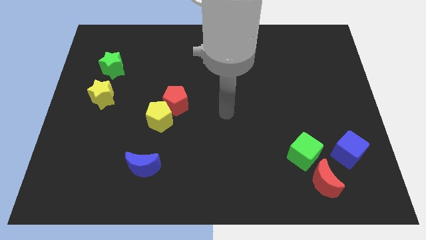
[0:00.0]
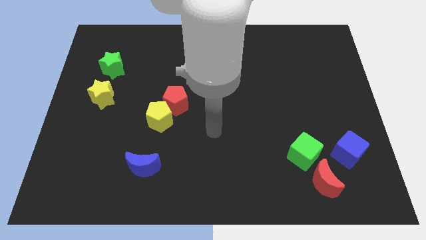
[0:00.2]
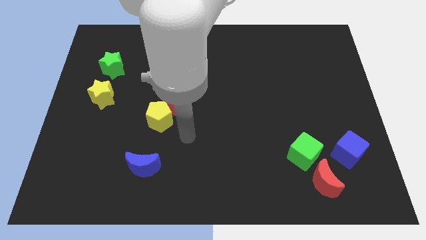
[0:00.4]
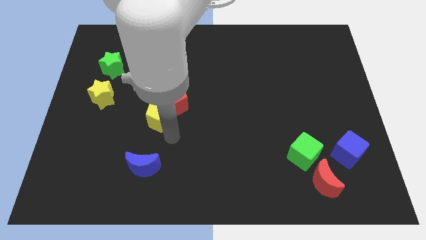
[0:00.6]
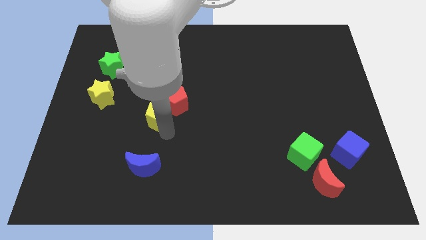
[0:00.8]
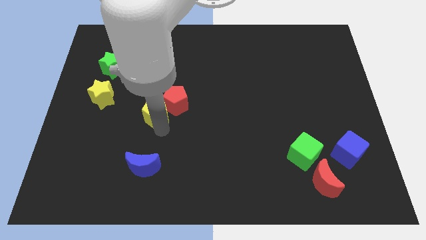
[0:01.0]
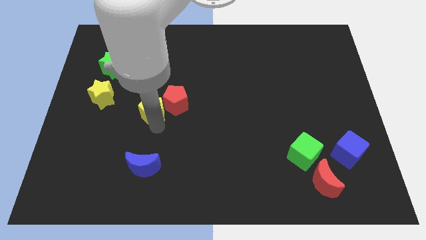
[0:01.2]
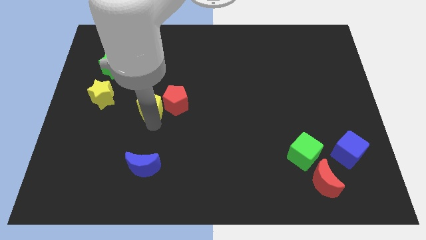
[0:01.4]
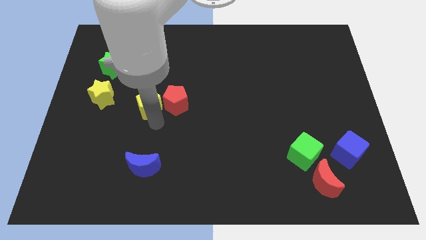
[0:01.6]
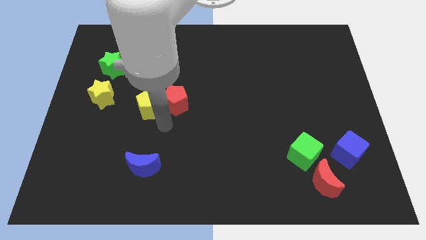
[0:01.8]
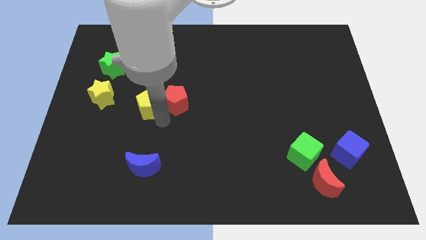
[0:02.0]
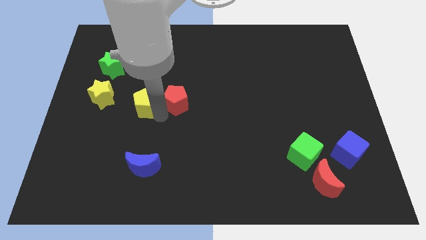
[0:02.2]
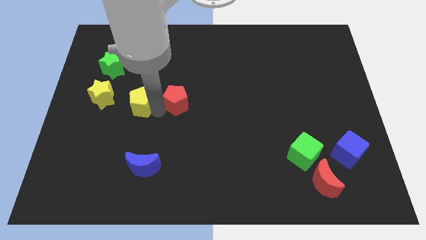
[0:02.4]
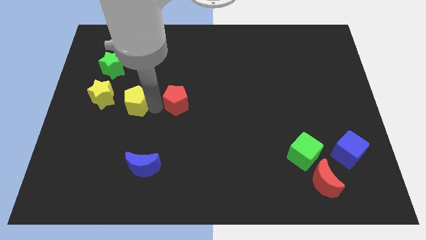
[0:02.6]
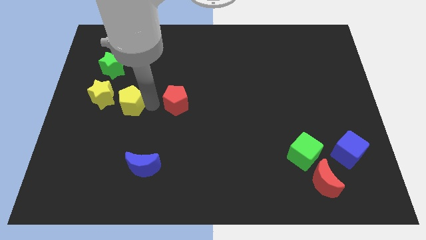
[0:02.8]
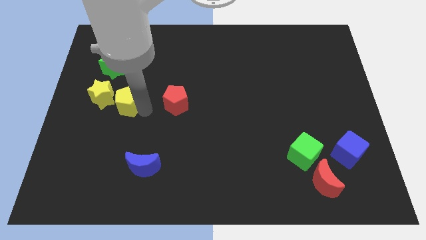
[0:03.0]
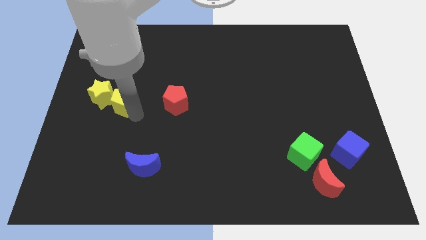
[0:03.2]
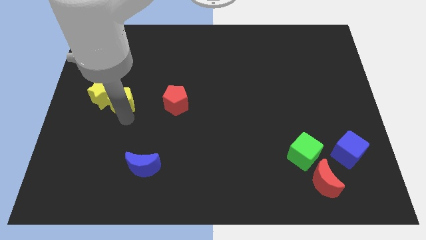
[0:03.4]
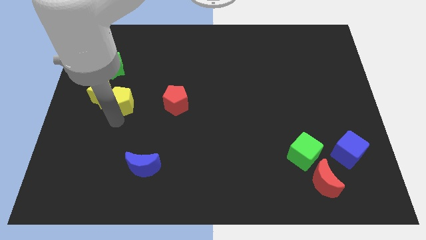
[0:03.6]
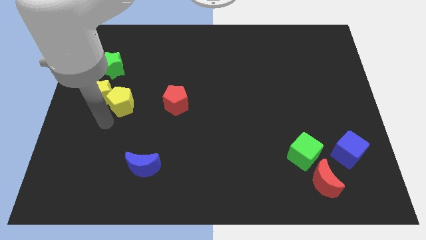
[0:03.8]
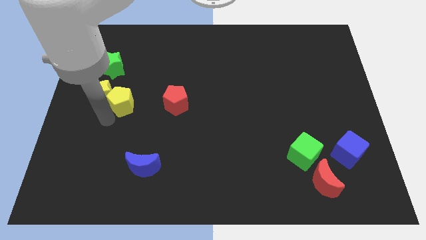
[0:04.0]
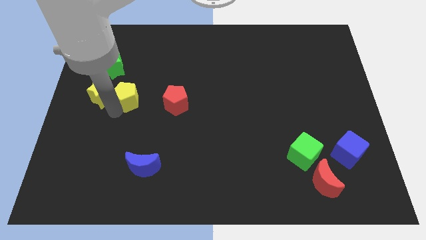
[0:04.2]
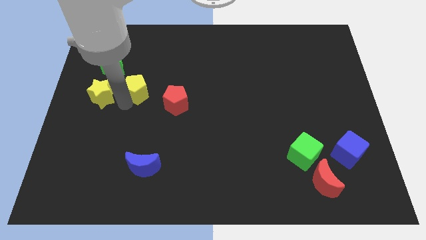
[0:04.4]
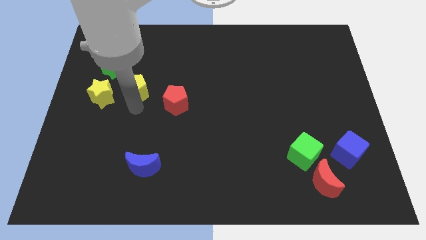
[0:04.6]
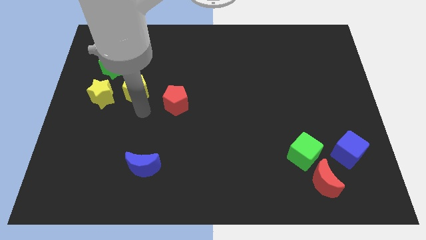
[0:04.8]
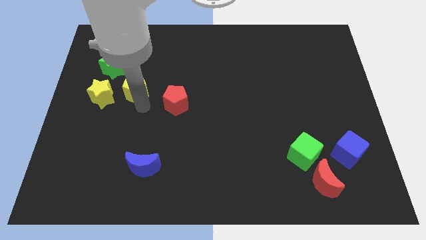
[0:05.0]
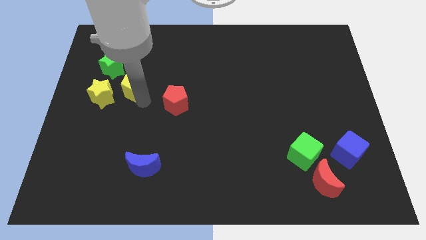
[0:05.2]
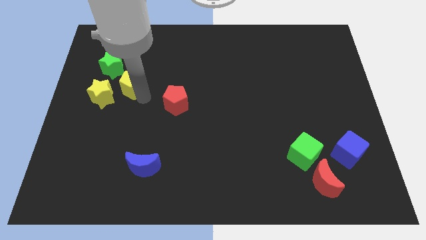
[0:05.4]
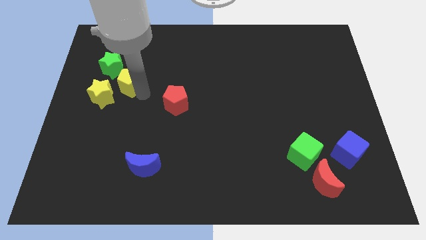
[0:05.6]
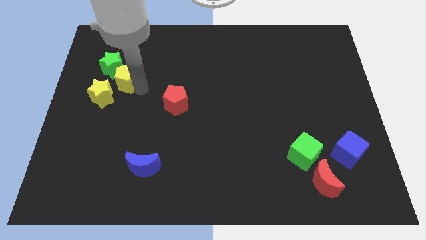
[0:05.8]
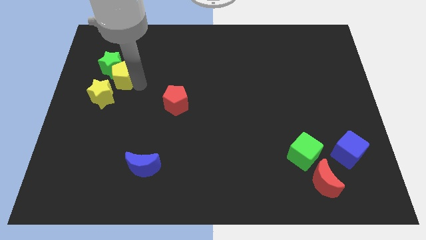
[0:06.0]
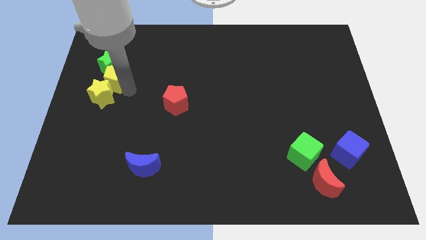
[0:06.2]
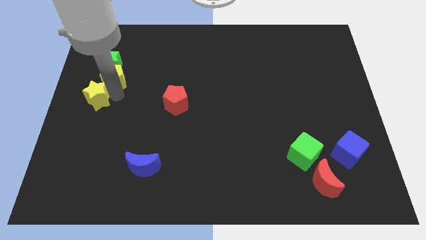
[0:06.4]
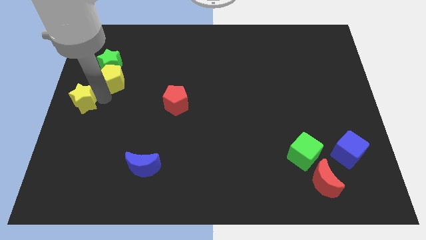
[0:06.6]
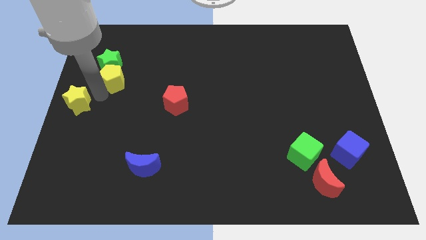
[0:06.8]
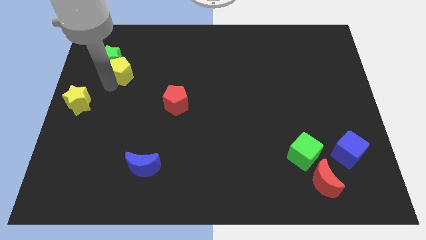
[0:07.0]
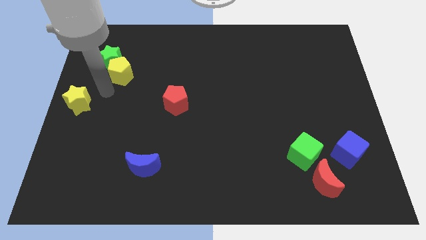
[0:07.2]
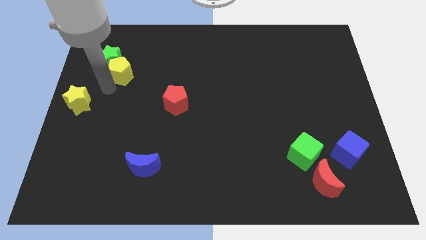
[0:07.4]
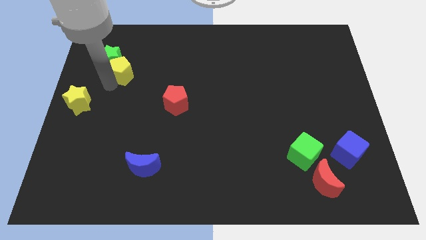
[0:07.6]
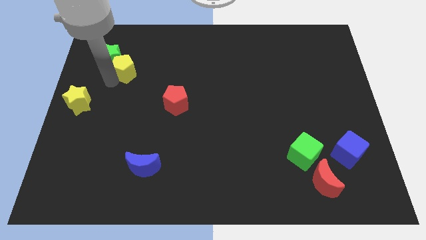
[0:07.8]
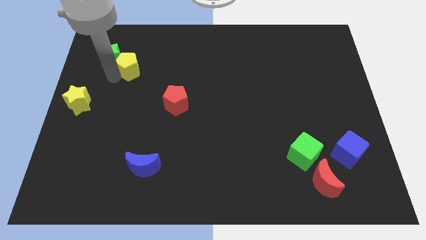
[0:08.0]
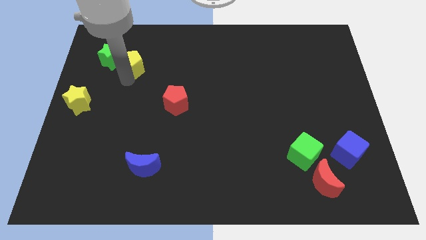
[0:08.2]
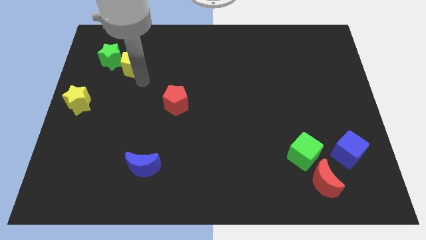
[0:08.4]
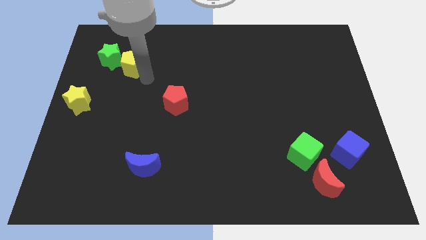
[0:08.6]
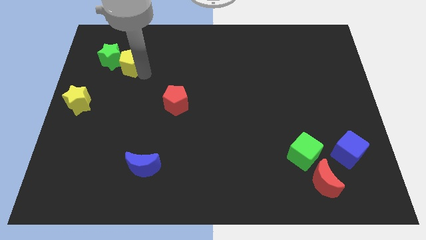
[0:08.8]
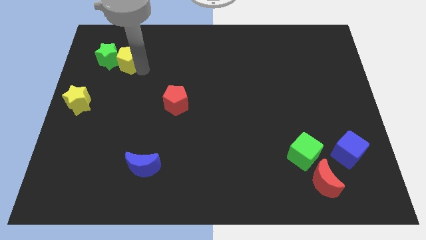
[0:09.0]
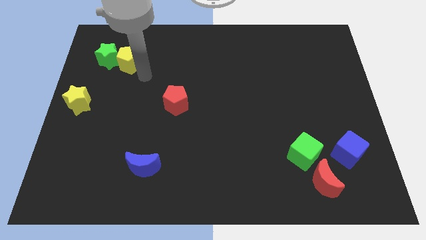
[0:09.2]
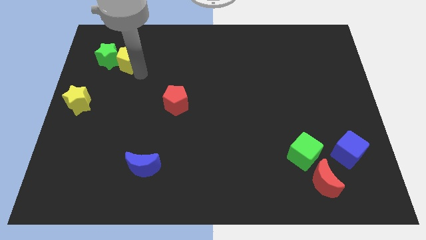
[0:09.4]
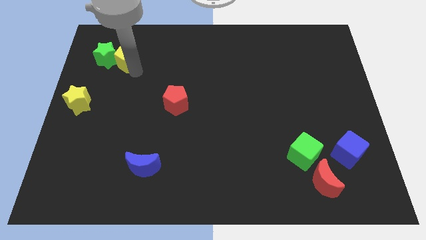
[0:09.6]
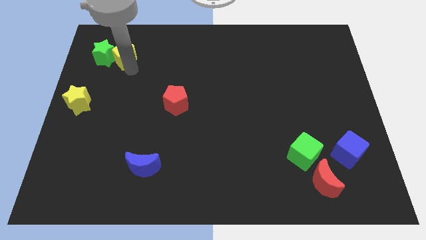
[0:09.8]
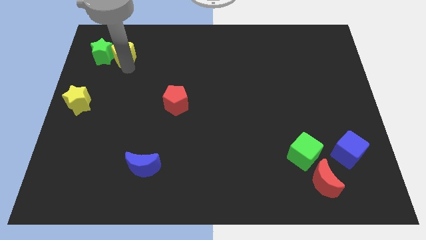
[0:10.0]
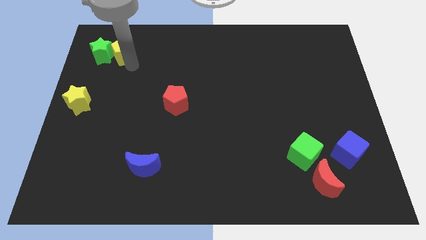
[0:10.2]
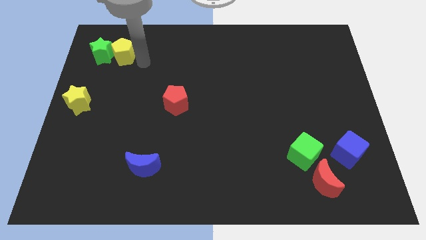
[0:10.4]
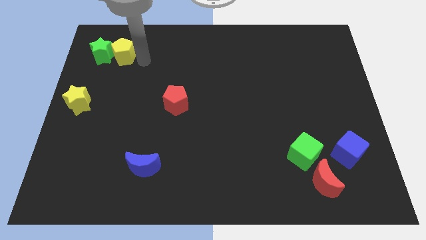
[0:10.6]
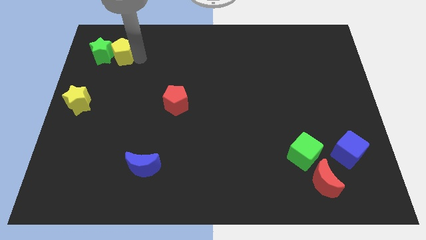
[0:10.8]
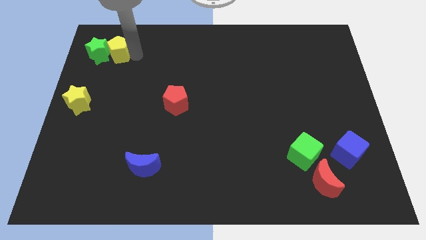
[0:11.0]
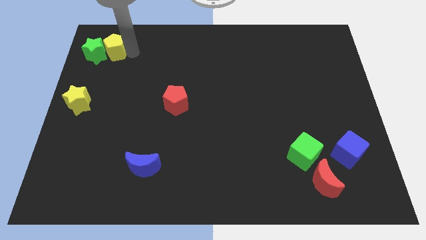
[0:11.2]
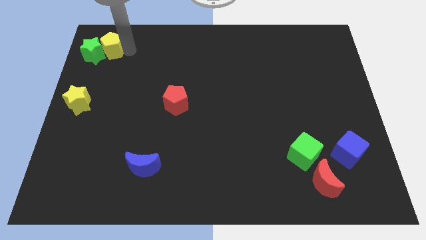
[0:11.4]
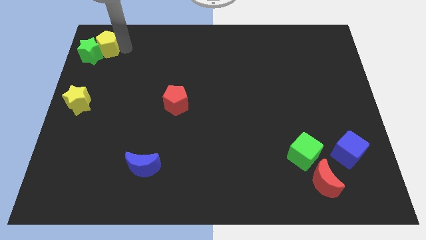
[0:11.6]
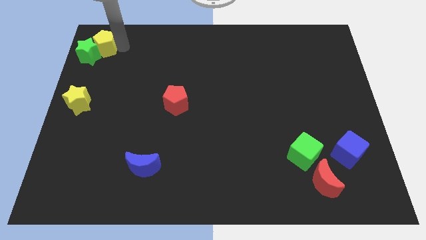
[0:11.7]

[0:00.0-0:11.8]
slide the yellow pentagon to the upper left corner

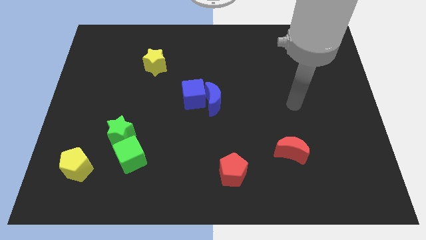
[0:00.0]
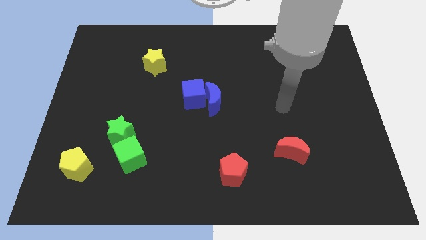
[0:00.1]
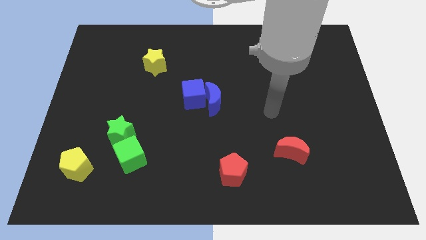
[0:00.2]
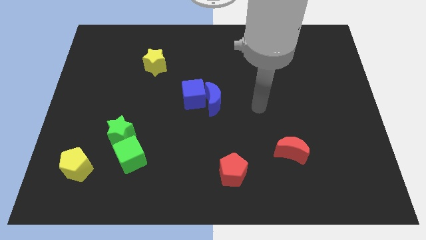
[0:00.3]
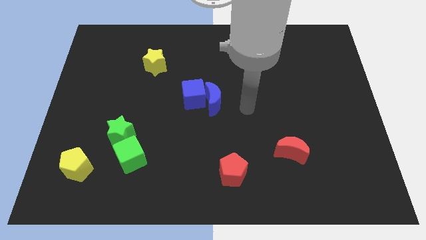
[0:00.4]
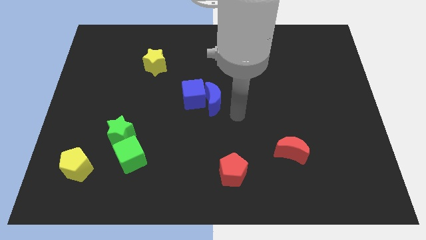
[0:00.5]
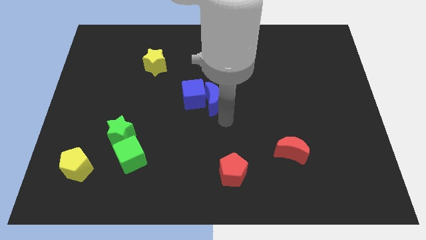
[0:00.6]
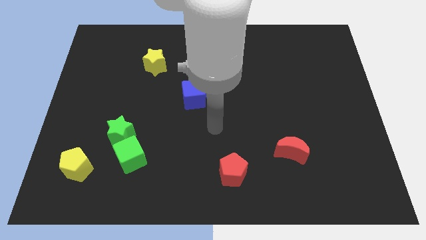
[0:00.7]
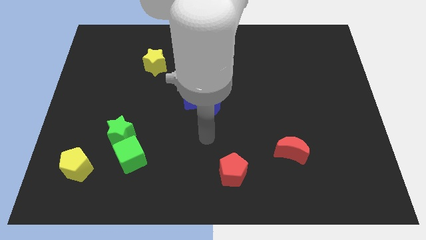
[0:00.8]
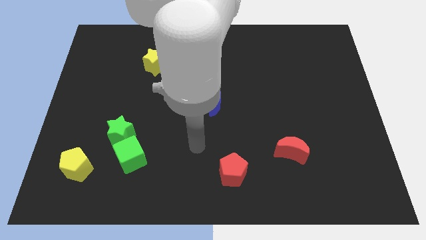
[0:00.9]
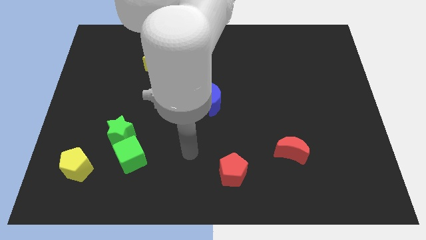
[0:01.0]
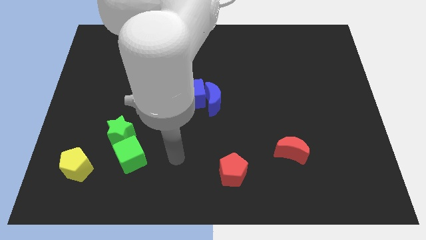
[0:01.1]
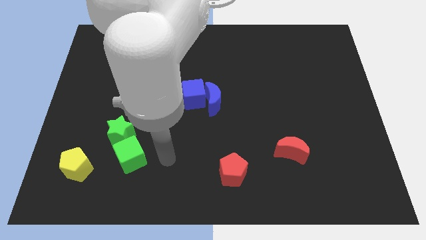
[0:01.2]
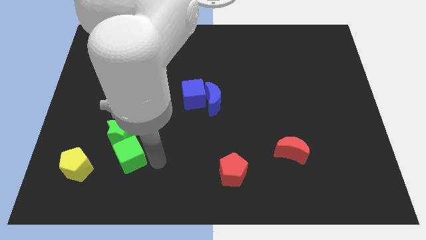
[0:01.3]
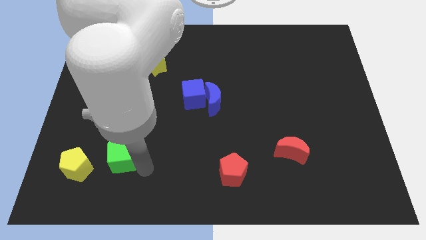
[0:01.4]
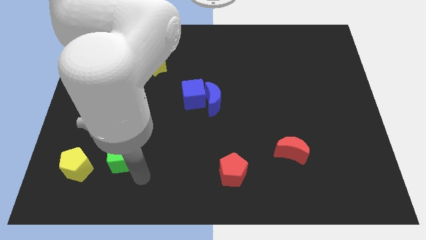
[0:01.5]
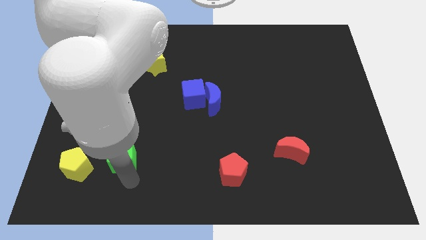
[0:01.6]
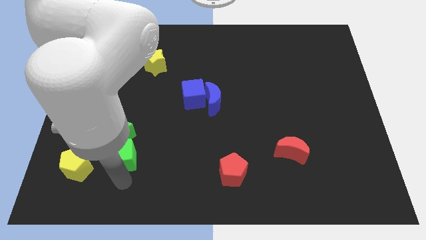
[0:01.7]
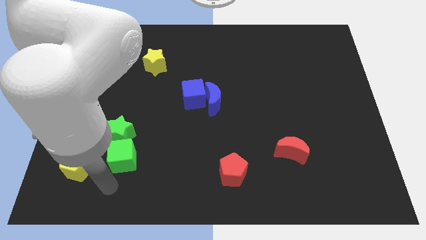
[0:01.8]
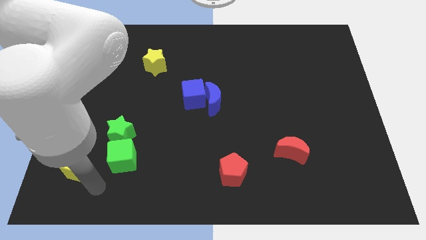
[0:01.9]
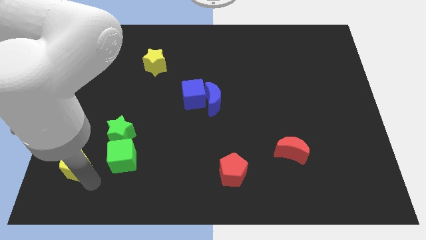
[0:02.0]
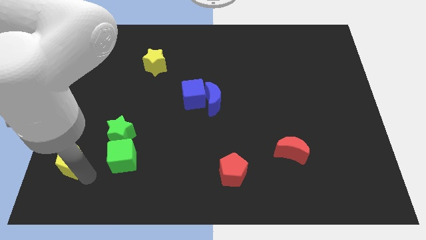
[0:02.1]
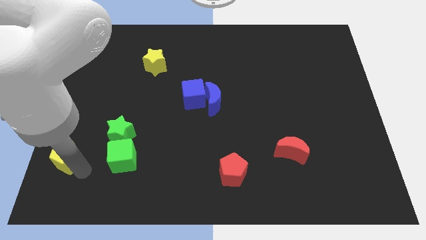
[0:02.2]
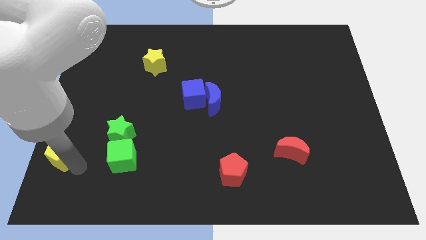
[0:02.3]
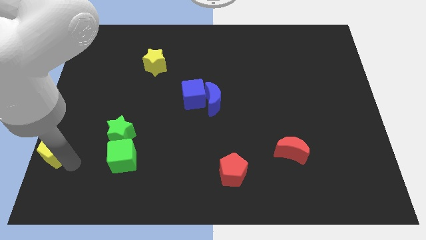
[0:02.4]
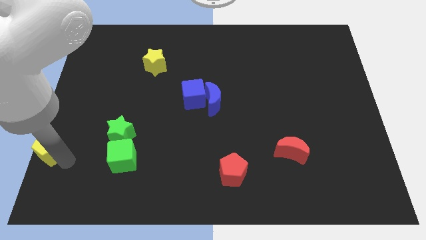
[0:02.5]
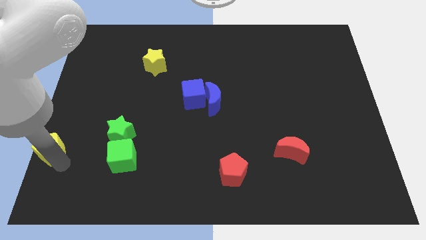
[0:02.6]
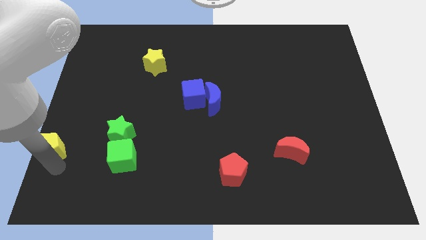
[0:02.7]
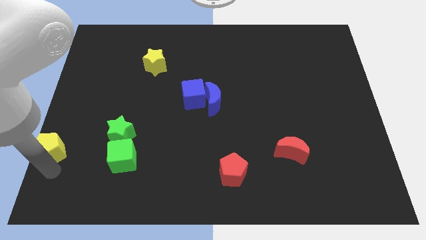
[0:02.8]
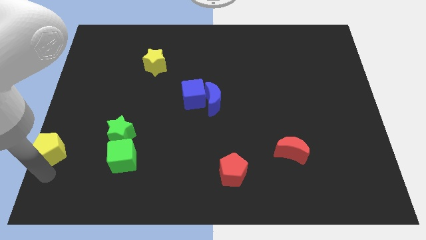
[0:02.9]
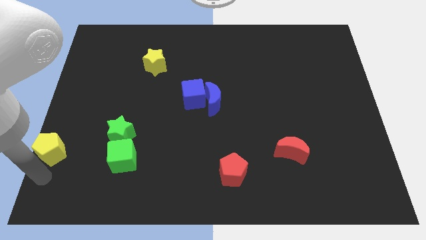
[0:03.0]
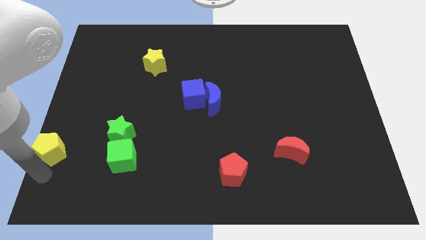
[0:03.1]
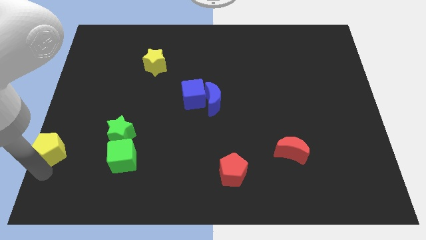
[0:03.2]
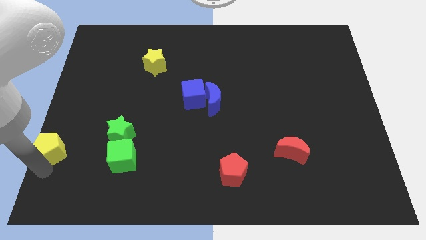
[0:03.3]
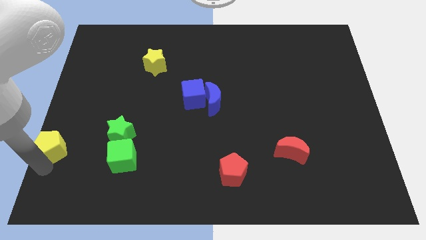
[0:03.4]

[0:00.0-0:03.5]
put the yellow pentagon to the left side
